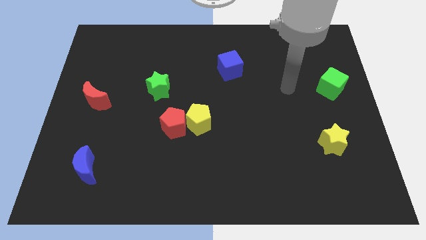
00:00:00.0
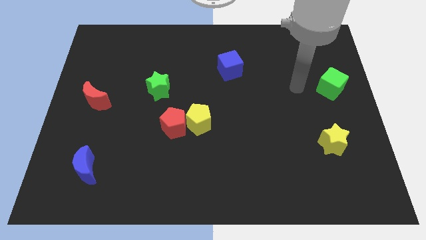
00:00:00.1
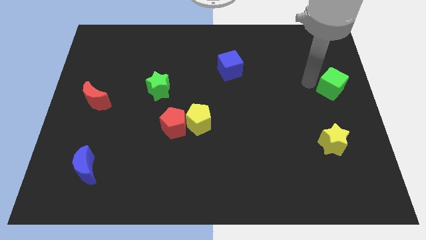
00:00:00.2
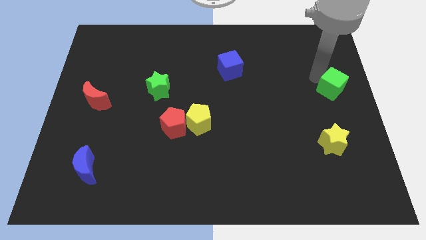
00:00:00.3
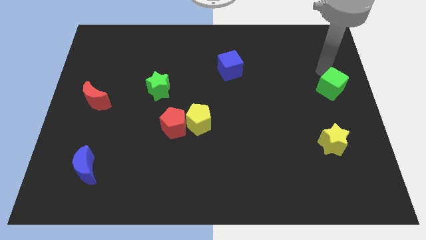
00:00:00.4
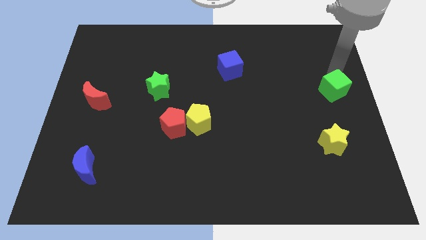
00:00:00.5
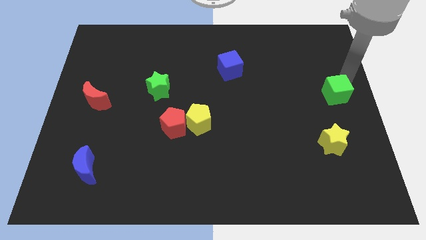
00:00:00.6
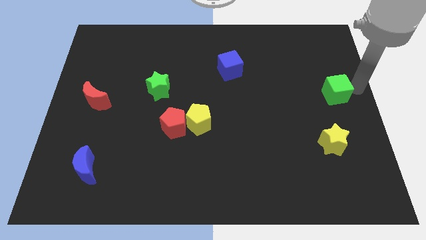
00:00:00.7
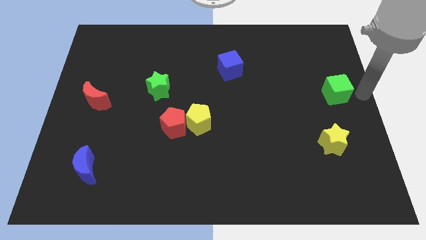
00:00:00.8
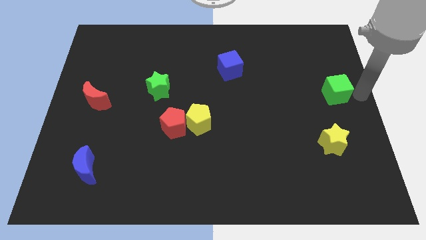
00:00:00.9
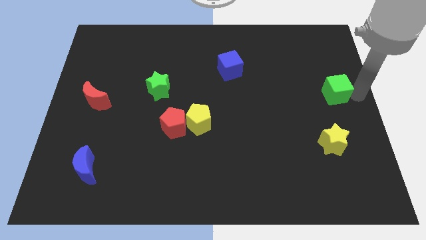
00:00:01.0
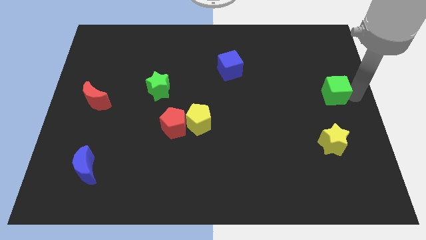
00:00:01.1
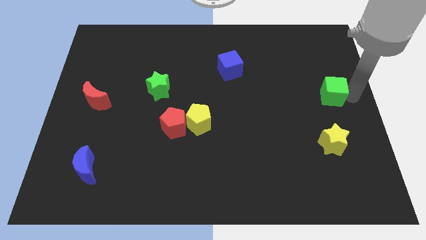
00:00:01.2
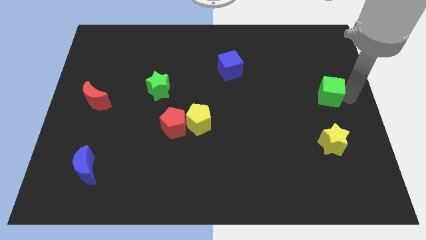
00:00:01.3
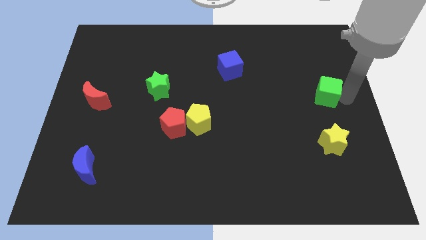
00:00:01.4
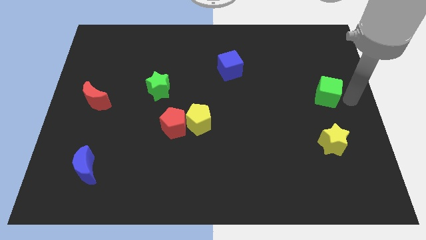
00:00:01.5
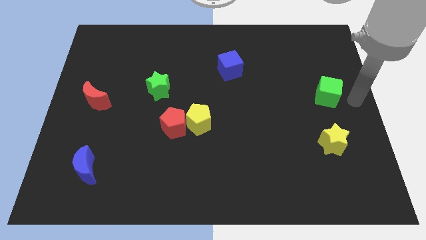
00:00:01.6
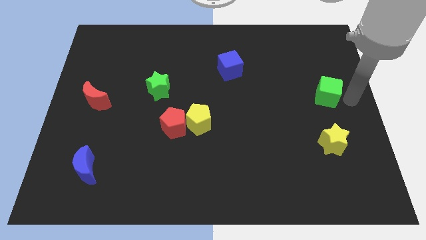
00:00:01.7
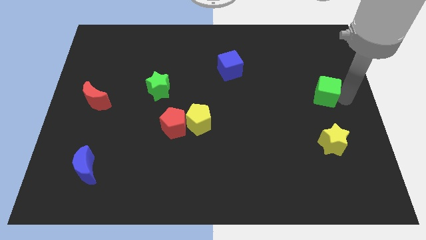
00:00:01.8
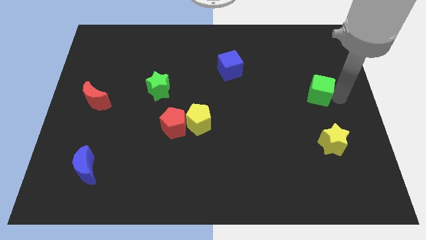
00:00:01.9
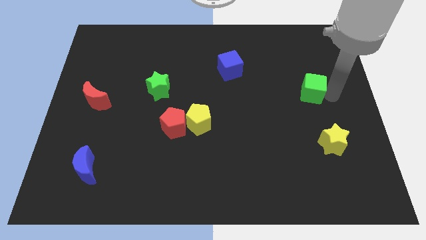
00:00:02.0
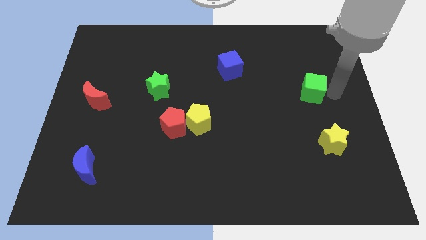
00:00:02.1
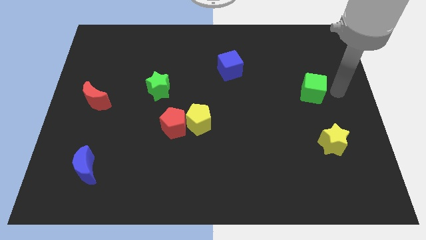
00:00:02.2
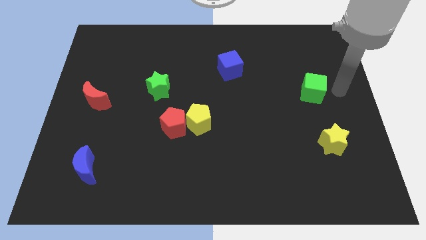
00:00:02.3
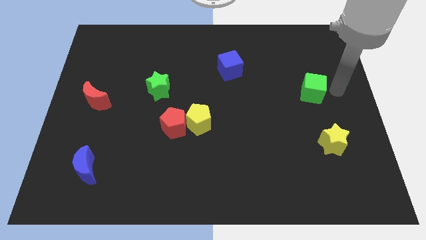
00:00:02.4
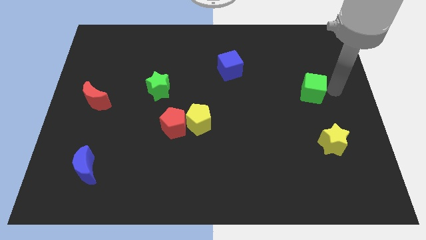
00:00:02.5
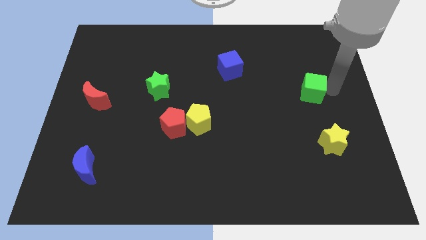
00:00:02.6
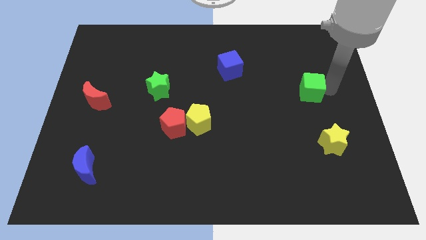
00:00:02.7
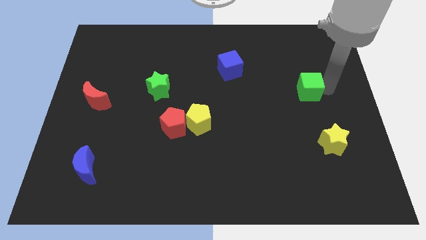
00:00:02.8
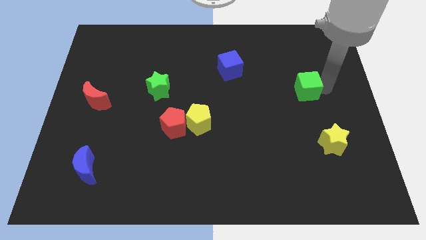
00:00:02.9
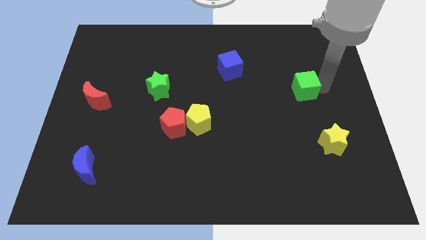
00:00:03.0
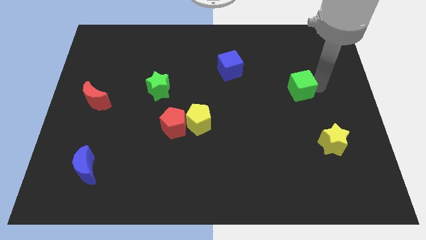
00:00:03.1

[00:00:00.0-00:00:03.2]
push the green cube left somewhat

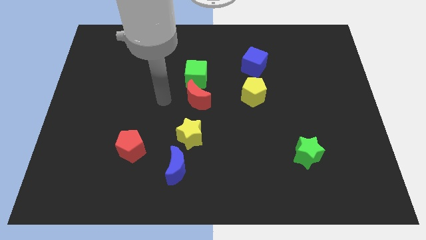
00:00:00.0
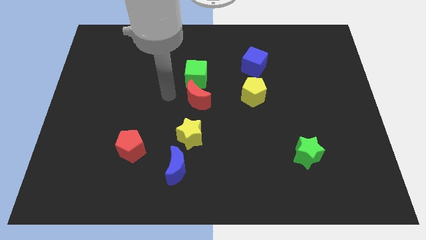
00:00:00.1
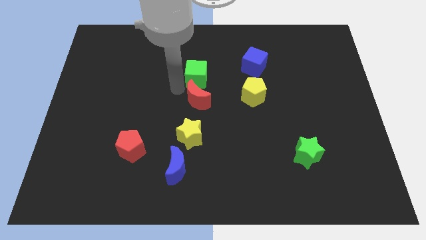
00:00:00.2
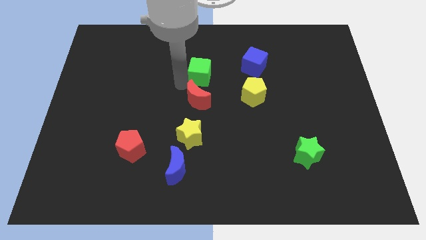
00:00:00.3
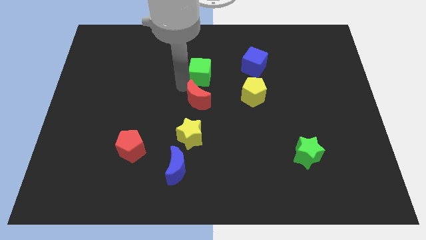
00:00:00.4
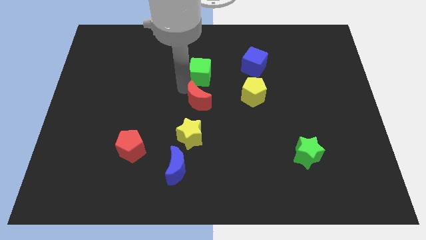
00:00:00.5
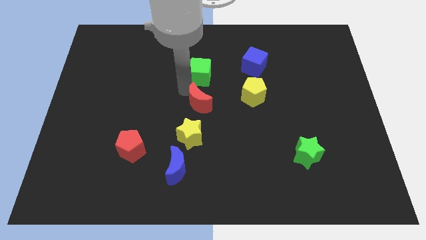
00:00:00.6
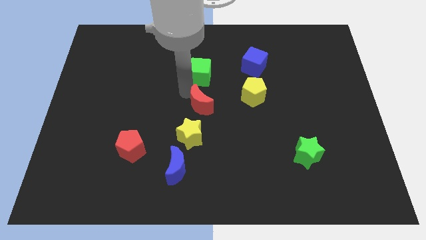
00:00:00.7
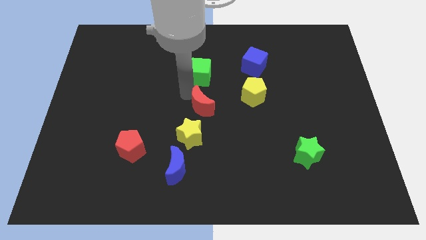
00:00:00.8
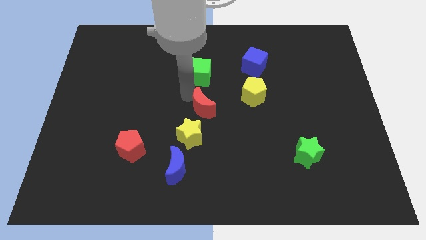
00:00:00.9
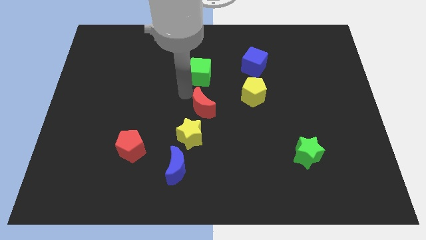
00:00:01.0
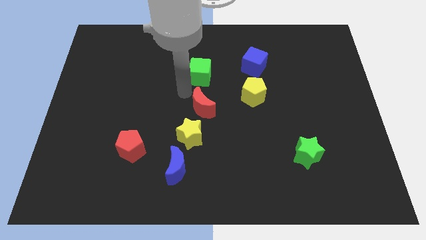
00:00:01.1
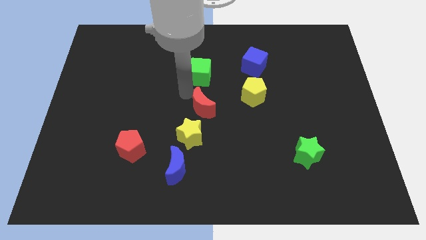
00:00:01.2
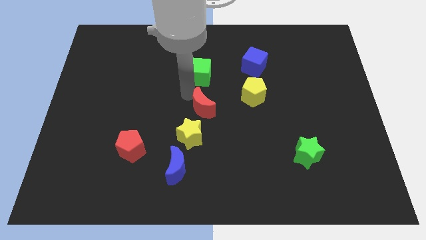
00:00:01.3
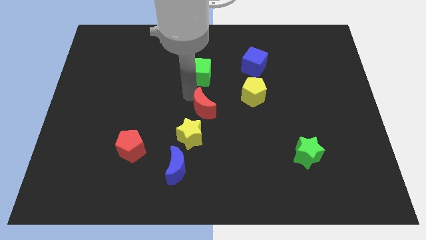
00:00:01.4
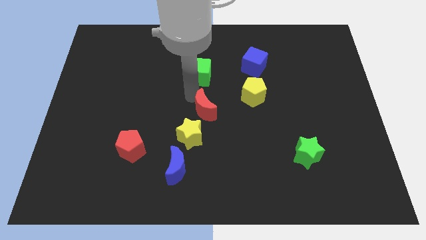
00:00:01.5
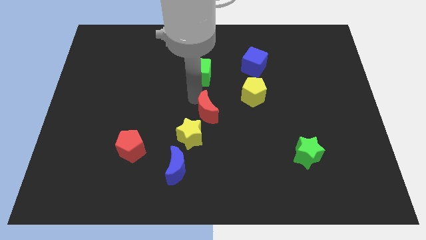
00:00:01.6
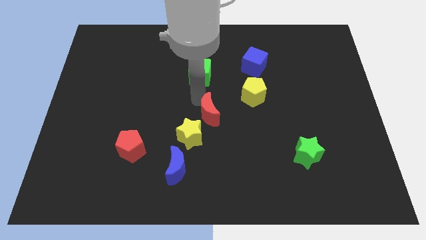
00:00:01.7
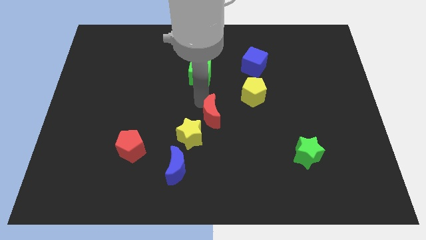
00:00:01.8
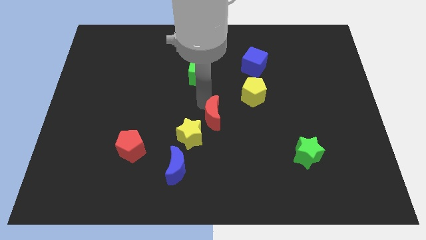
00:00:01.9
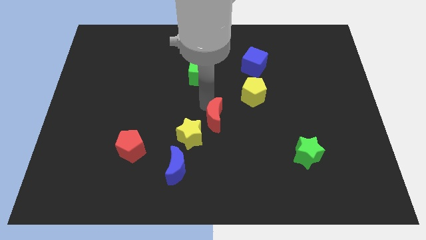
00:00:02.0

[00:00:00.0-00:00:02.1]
slightly push the red moon down and then right

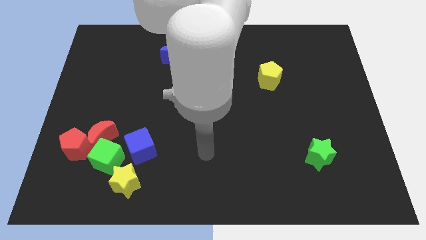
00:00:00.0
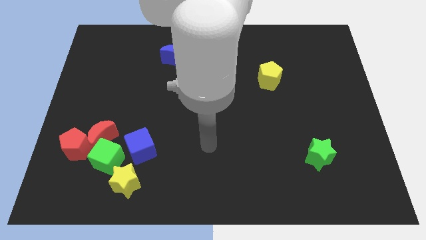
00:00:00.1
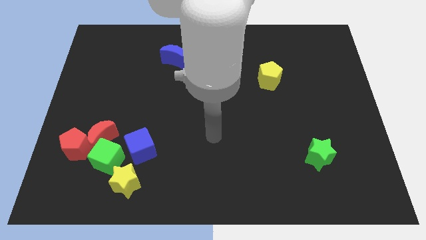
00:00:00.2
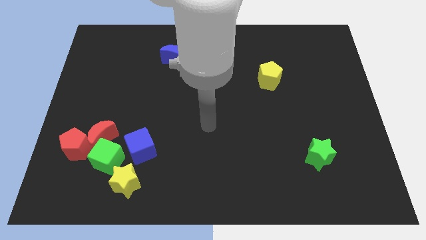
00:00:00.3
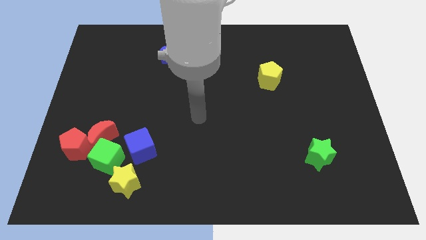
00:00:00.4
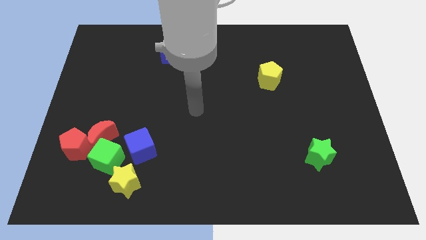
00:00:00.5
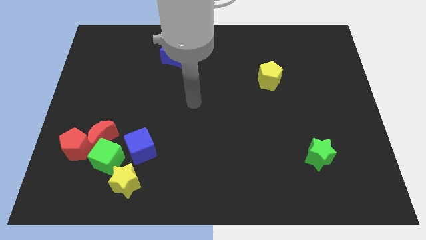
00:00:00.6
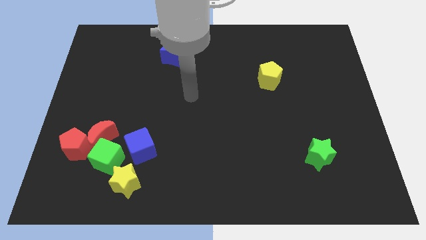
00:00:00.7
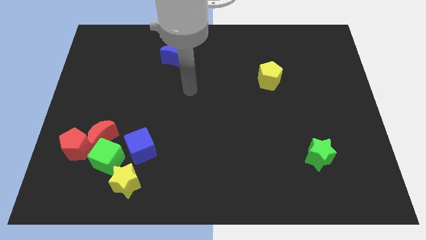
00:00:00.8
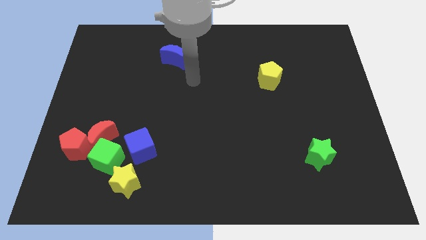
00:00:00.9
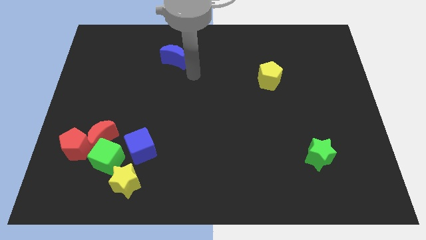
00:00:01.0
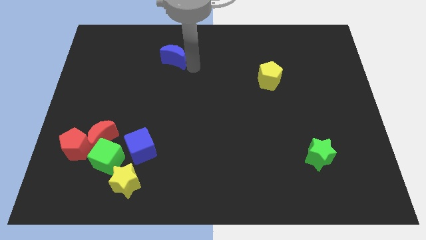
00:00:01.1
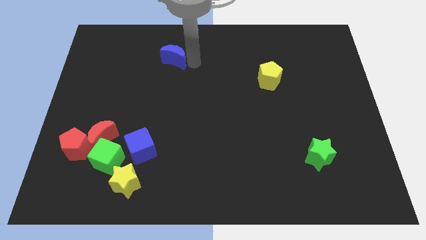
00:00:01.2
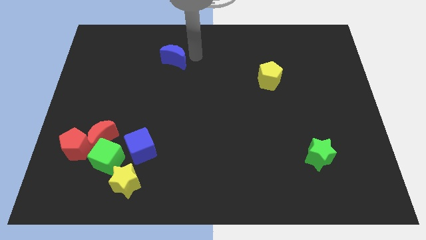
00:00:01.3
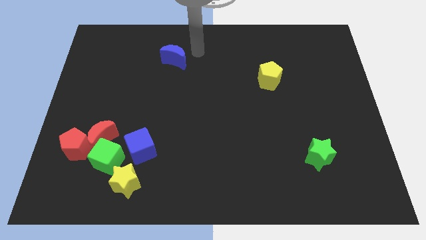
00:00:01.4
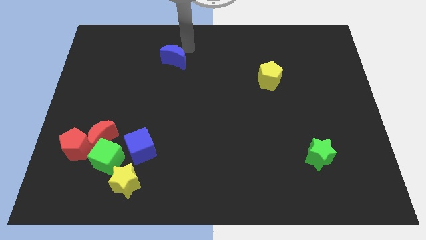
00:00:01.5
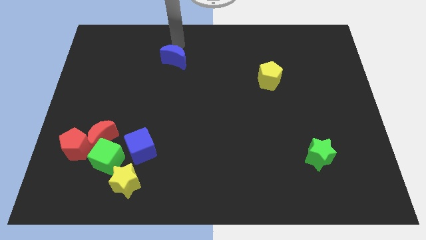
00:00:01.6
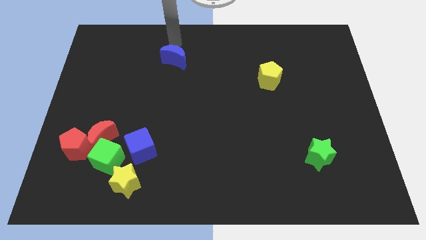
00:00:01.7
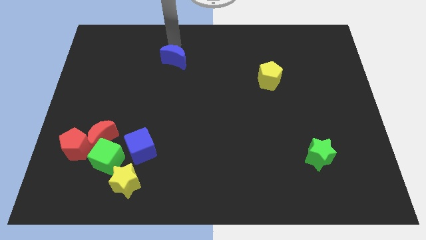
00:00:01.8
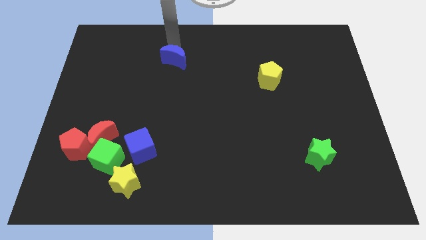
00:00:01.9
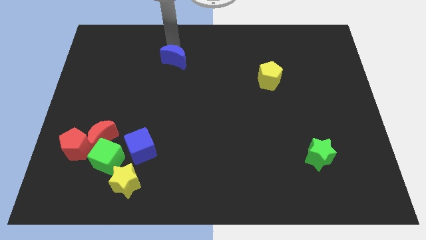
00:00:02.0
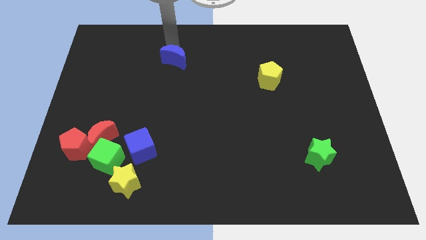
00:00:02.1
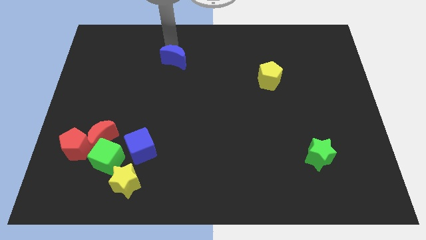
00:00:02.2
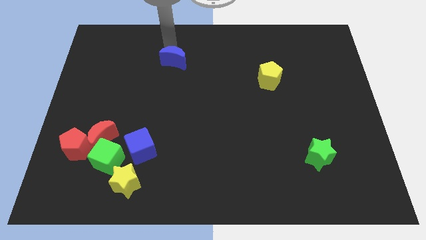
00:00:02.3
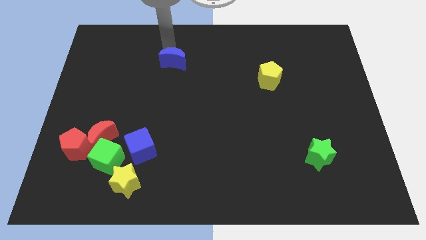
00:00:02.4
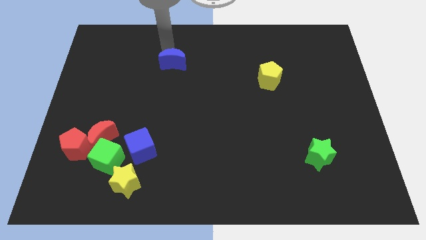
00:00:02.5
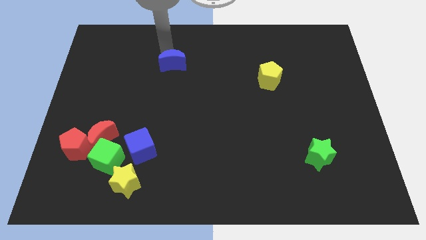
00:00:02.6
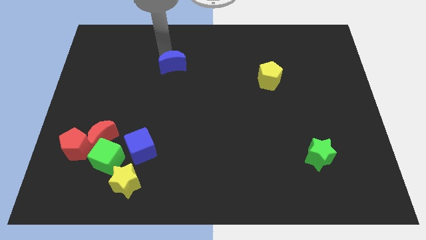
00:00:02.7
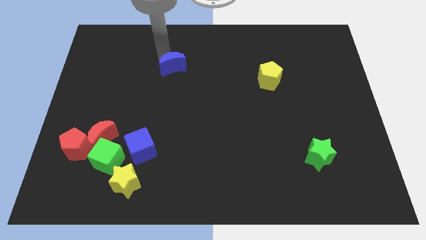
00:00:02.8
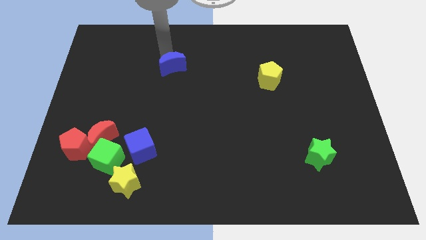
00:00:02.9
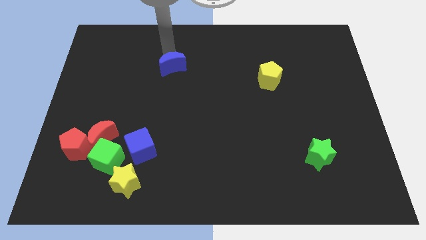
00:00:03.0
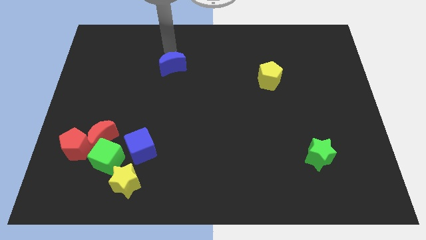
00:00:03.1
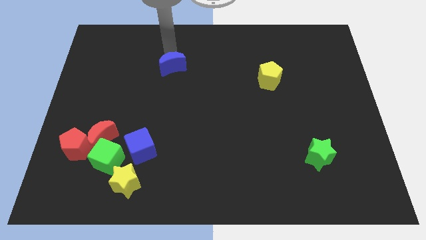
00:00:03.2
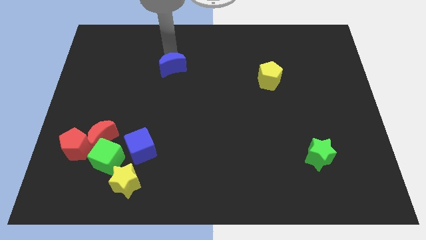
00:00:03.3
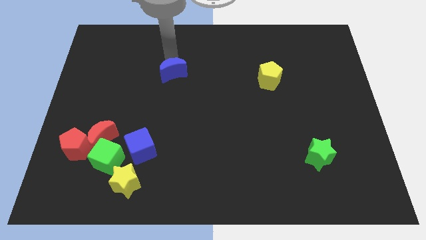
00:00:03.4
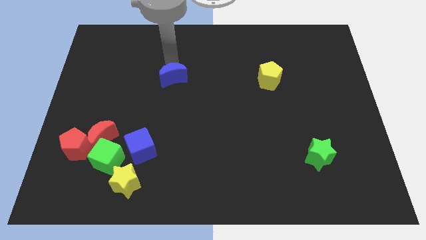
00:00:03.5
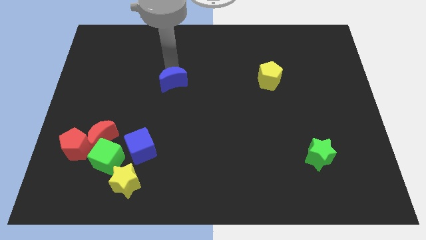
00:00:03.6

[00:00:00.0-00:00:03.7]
slide the blue moon down a bit
